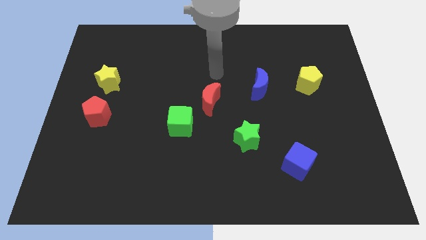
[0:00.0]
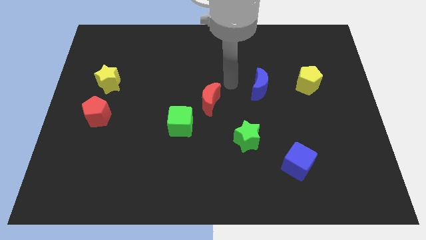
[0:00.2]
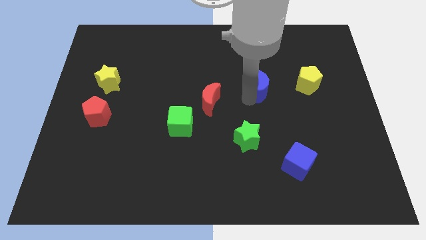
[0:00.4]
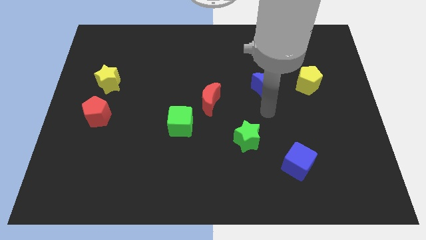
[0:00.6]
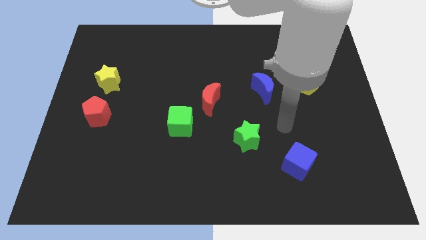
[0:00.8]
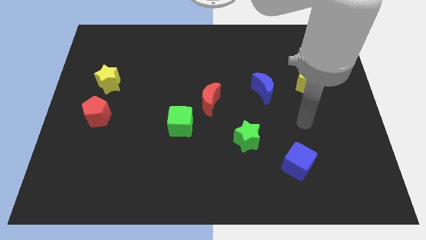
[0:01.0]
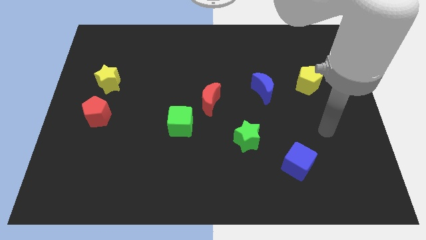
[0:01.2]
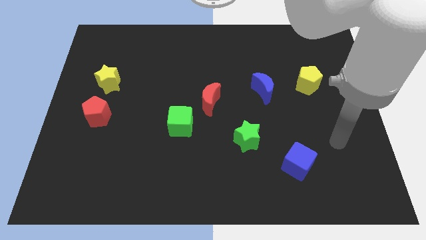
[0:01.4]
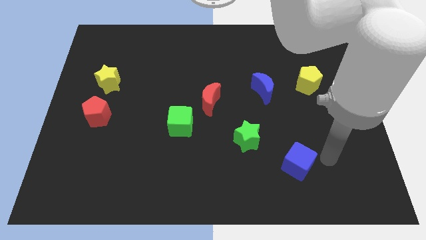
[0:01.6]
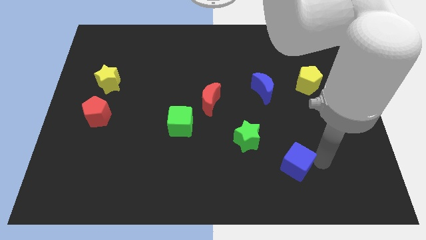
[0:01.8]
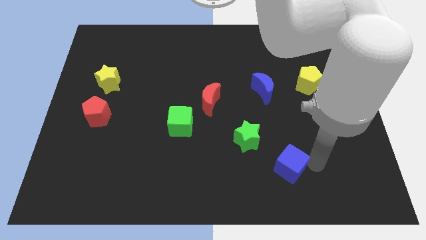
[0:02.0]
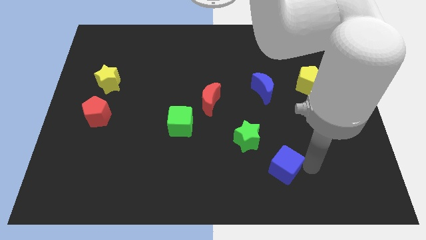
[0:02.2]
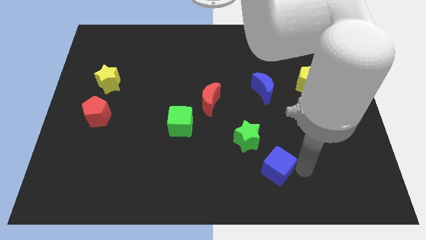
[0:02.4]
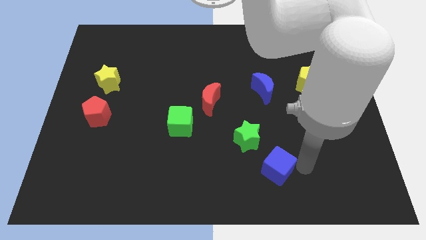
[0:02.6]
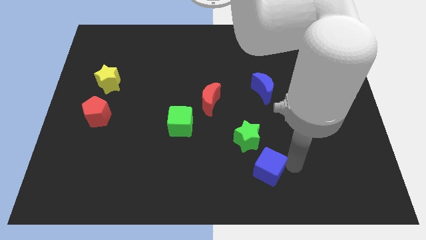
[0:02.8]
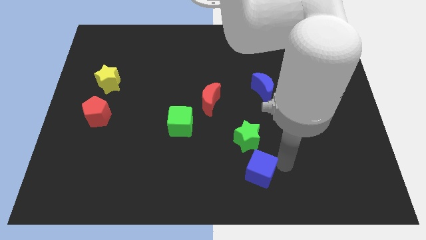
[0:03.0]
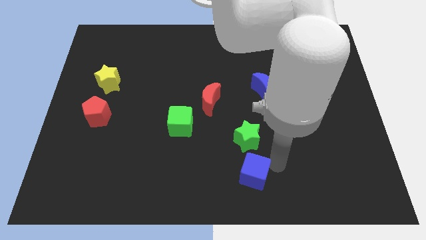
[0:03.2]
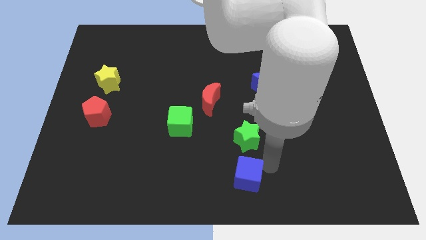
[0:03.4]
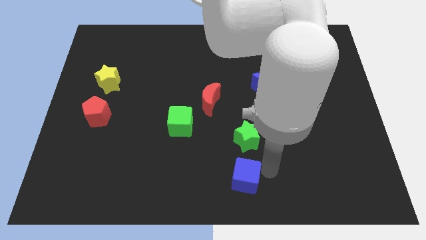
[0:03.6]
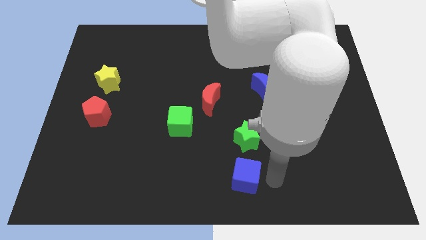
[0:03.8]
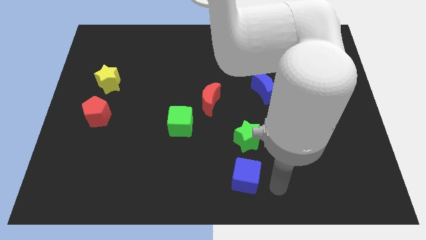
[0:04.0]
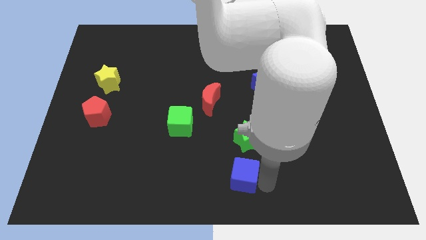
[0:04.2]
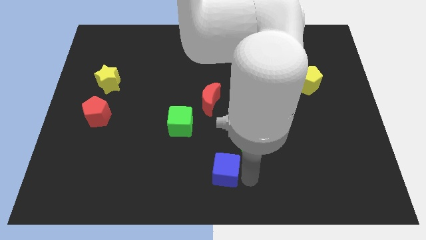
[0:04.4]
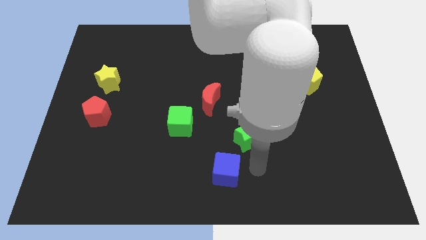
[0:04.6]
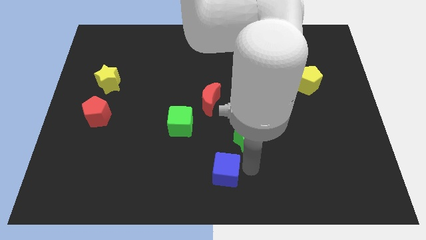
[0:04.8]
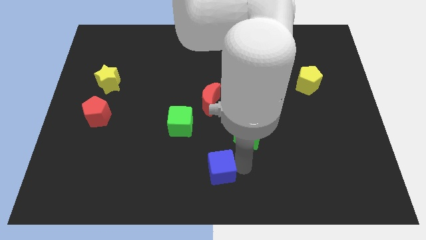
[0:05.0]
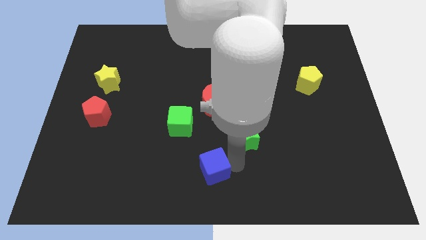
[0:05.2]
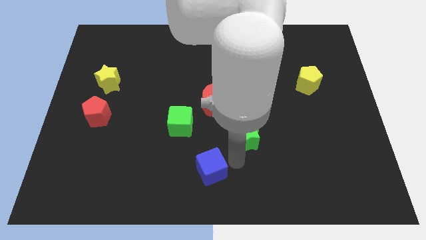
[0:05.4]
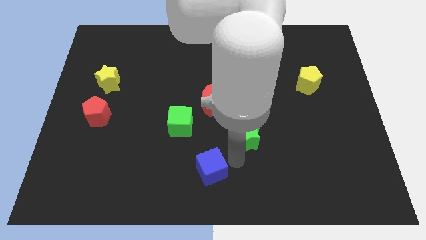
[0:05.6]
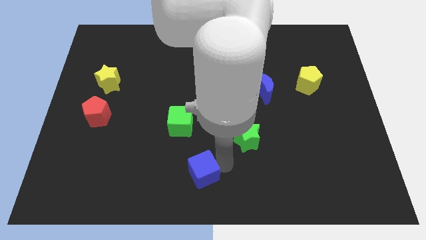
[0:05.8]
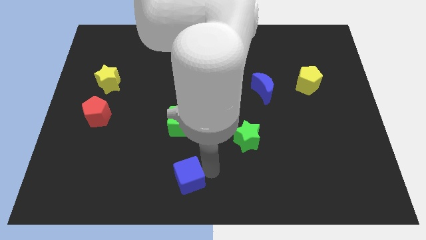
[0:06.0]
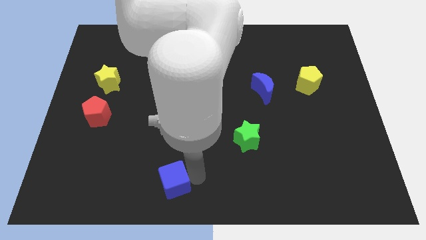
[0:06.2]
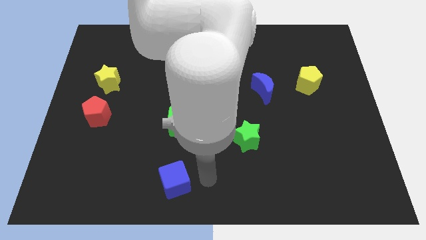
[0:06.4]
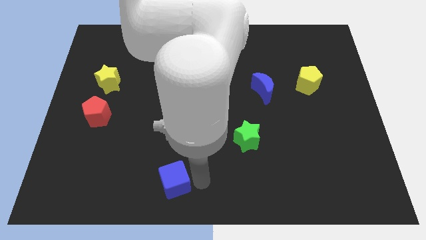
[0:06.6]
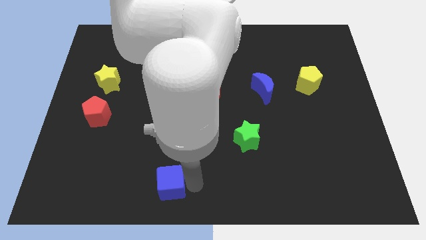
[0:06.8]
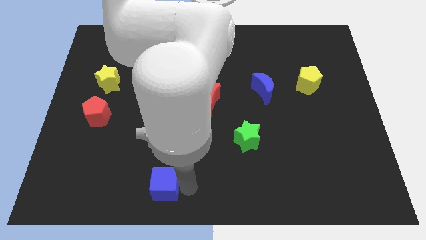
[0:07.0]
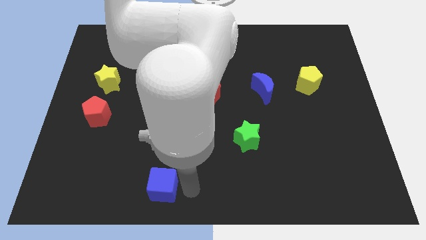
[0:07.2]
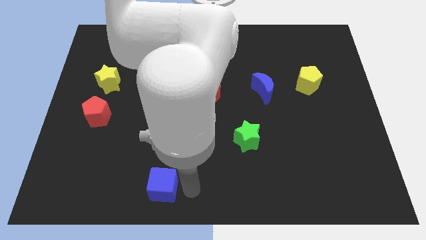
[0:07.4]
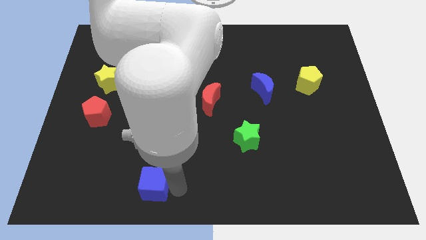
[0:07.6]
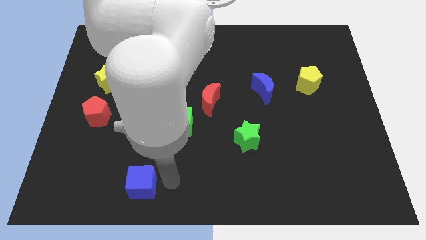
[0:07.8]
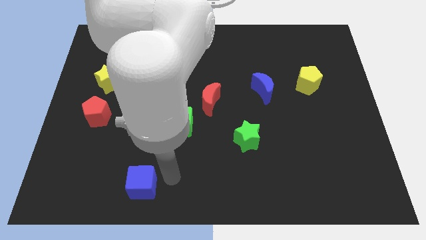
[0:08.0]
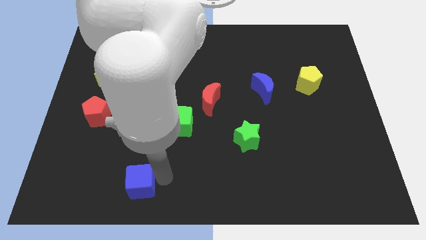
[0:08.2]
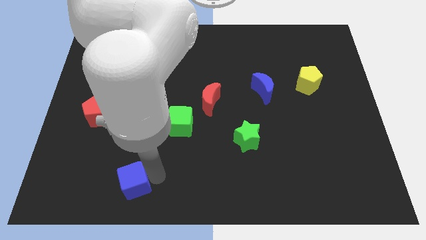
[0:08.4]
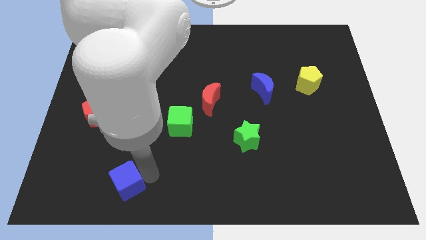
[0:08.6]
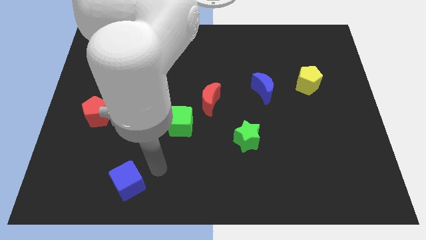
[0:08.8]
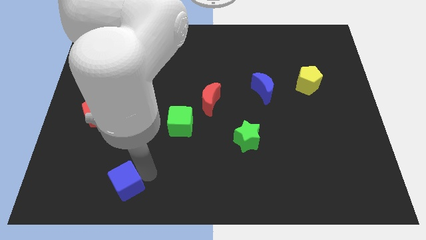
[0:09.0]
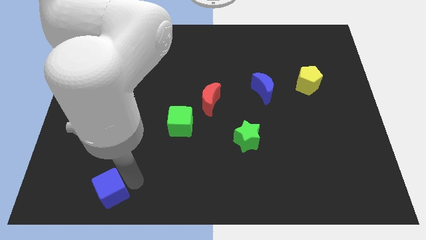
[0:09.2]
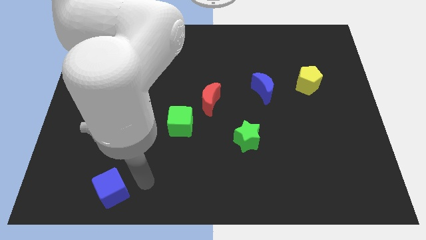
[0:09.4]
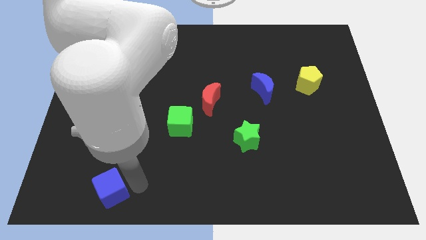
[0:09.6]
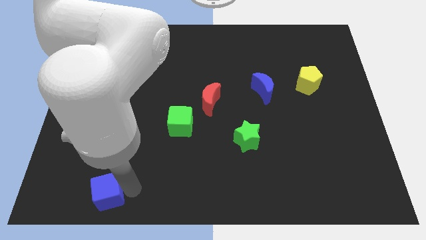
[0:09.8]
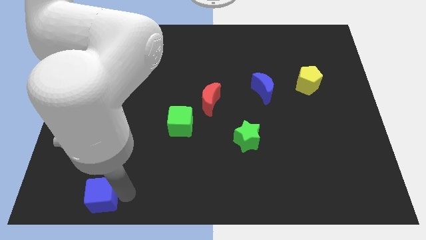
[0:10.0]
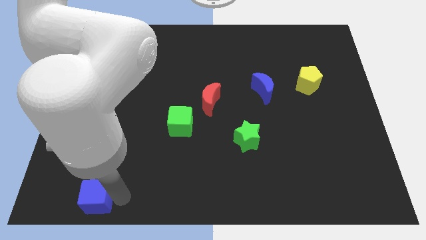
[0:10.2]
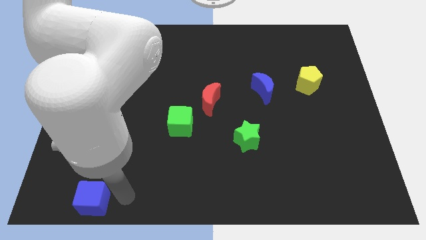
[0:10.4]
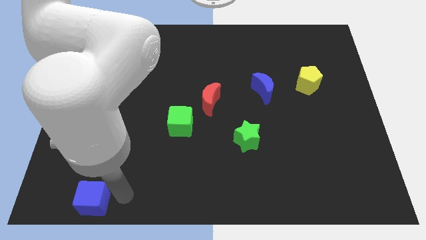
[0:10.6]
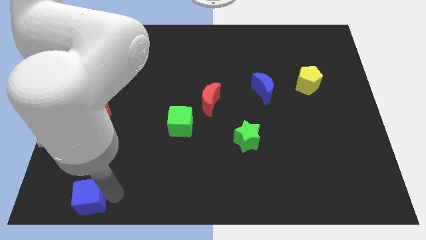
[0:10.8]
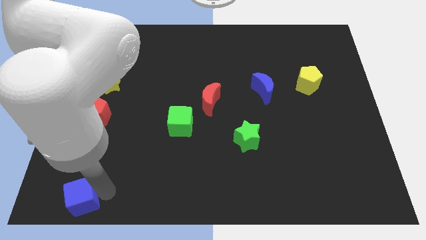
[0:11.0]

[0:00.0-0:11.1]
move the blue cube to the bottom left

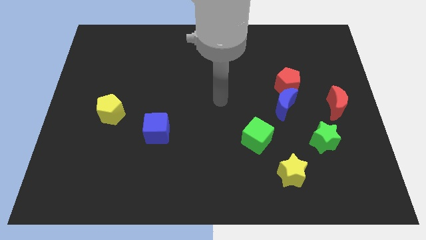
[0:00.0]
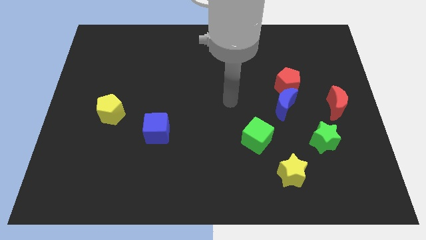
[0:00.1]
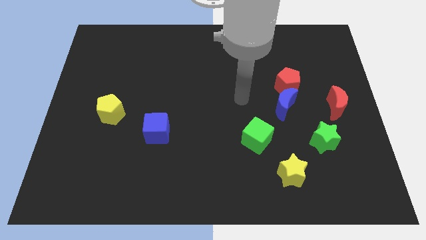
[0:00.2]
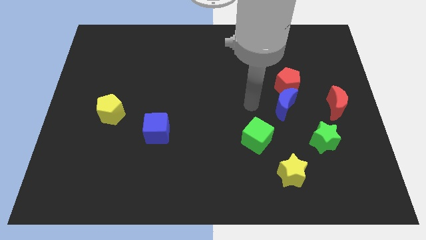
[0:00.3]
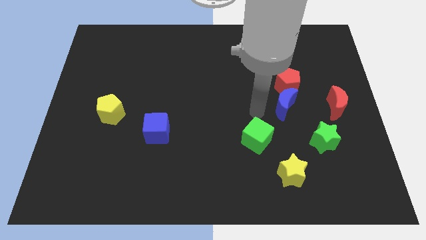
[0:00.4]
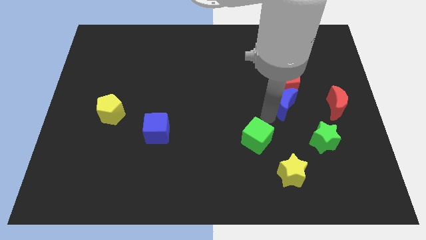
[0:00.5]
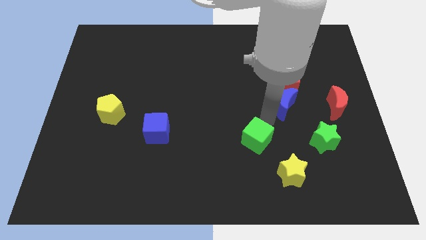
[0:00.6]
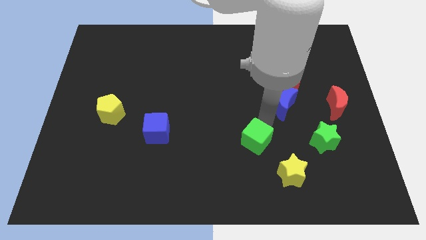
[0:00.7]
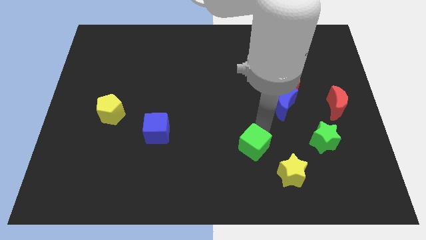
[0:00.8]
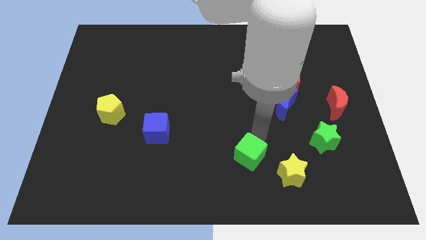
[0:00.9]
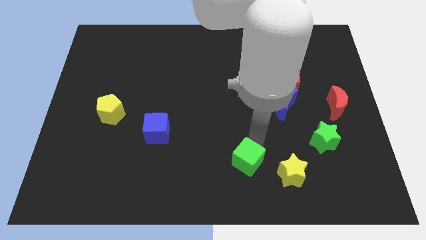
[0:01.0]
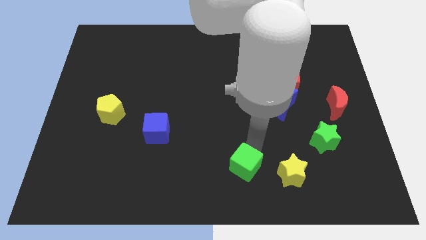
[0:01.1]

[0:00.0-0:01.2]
move the green cube to the bottom side
